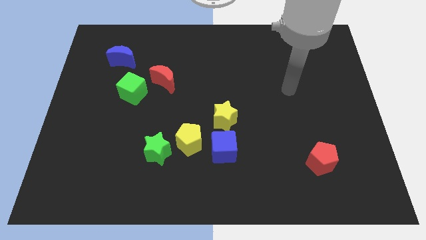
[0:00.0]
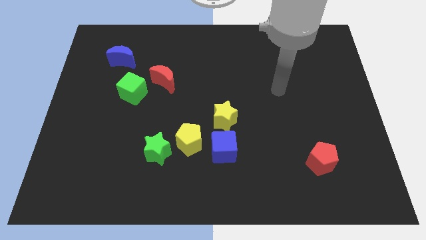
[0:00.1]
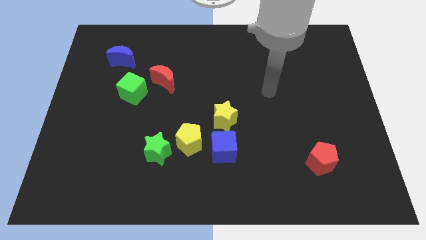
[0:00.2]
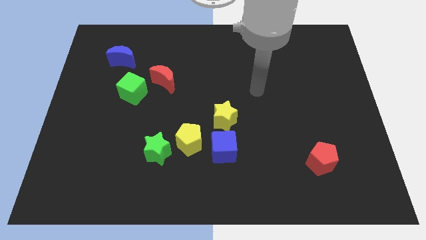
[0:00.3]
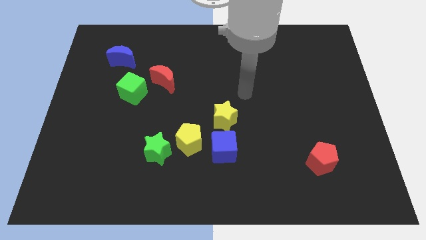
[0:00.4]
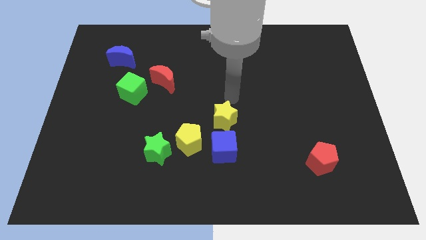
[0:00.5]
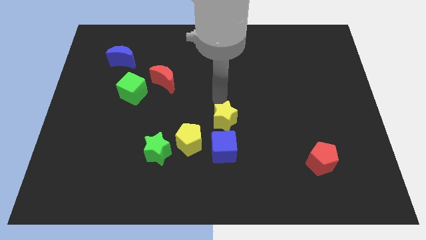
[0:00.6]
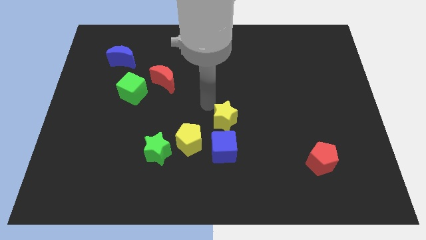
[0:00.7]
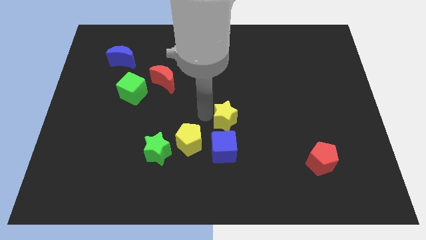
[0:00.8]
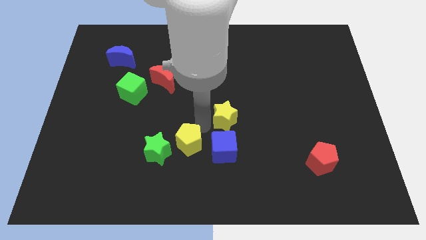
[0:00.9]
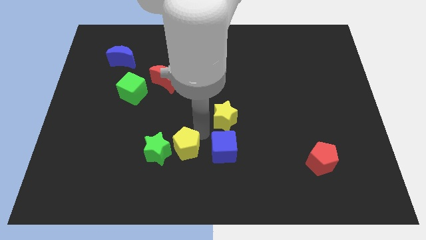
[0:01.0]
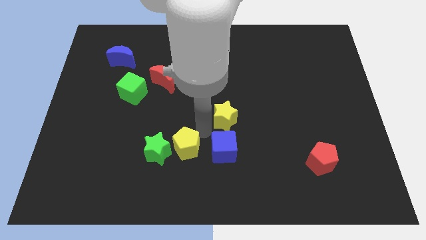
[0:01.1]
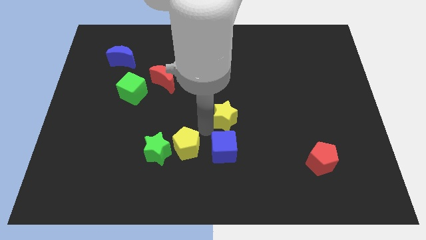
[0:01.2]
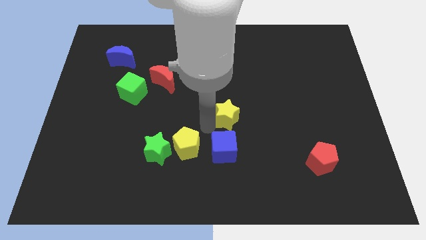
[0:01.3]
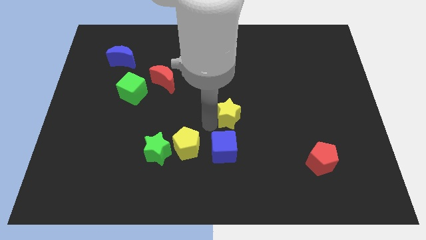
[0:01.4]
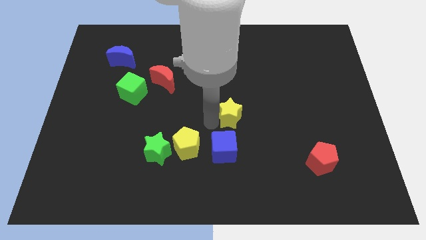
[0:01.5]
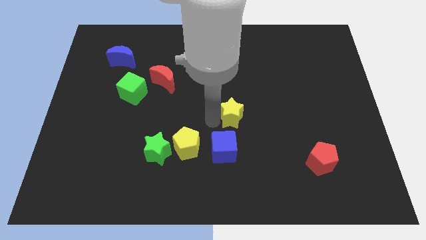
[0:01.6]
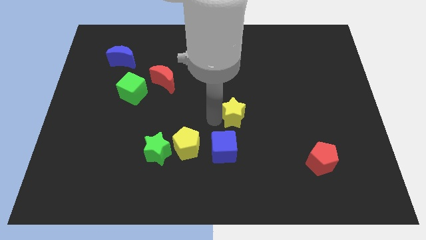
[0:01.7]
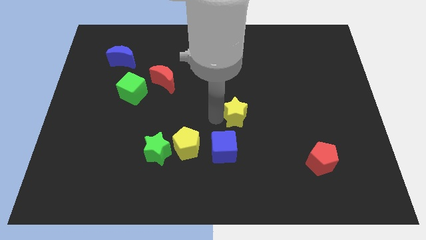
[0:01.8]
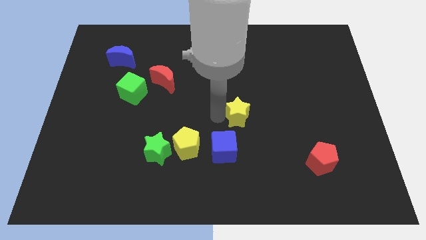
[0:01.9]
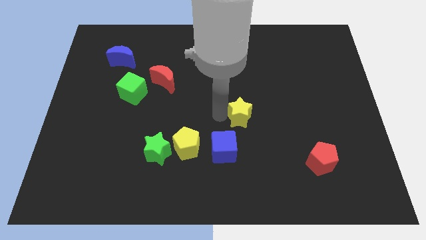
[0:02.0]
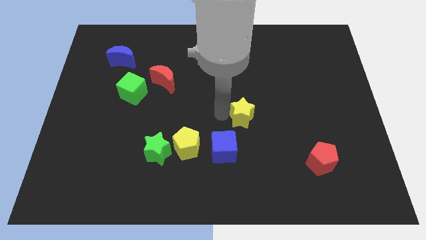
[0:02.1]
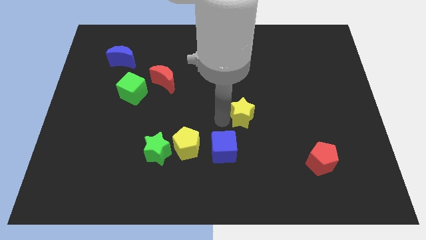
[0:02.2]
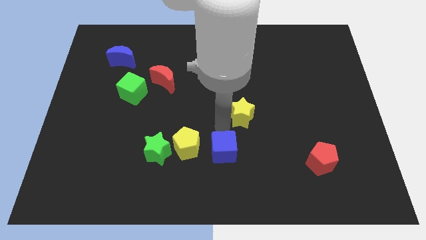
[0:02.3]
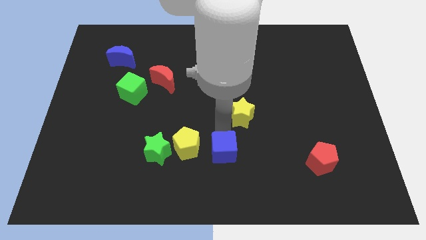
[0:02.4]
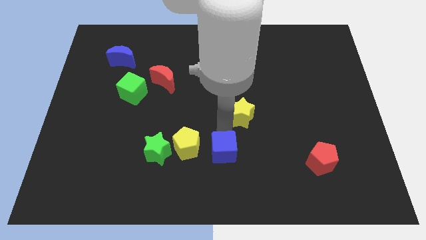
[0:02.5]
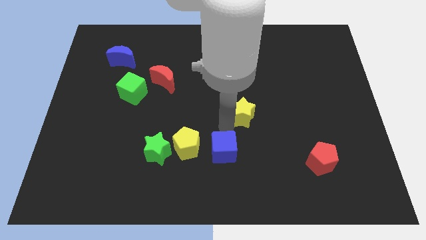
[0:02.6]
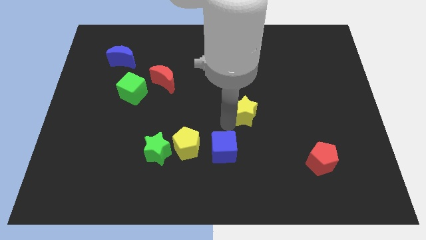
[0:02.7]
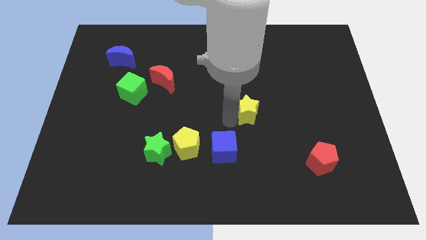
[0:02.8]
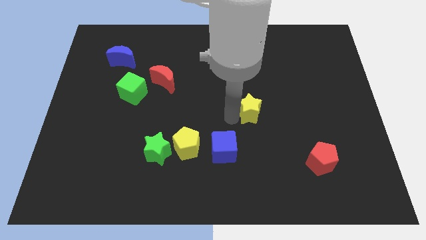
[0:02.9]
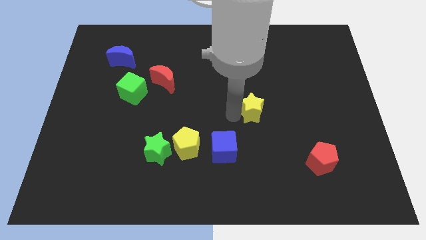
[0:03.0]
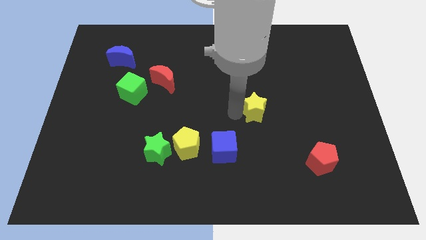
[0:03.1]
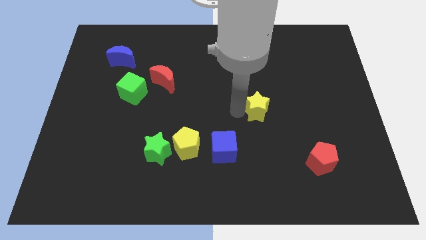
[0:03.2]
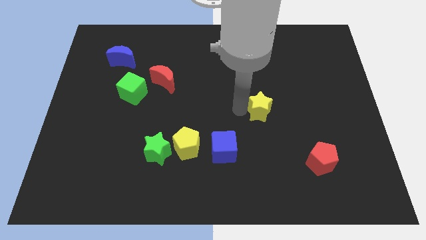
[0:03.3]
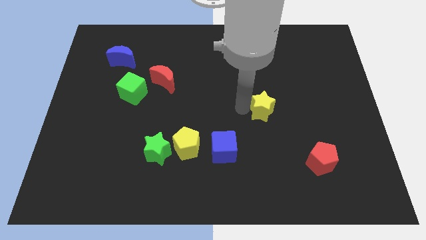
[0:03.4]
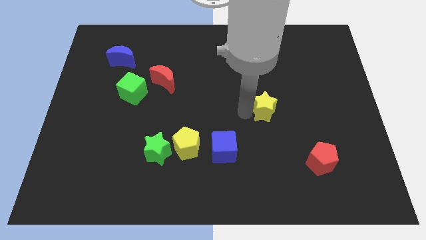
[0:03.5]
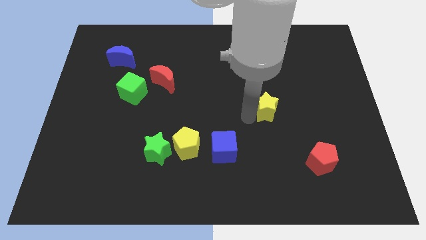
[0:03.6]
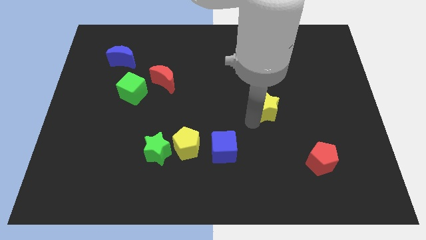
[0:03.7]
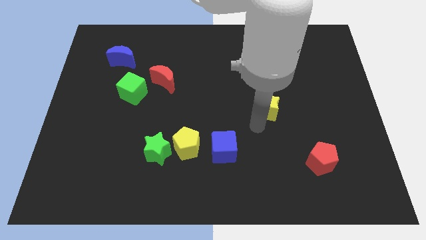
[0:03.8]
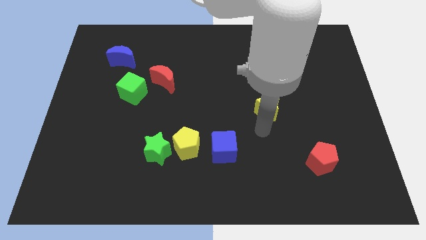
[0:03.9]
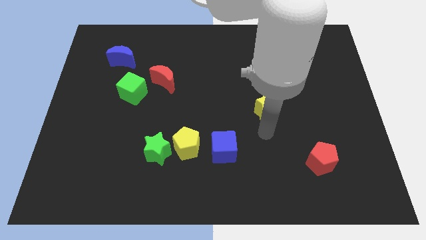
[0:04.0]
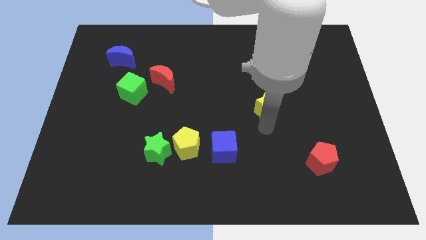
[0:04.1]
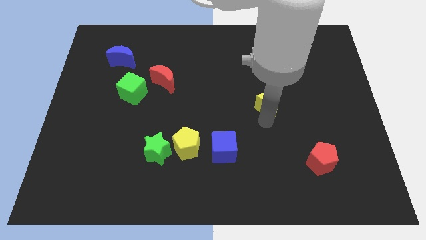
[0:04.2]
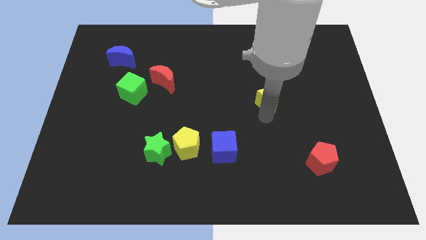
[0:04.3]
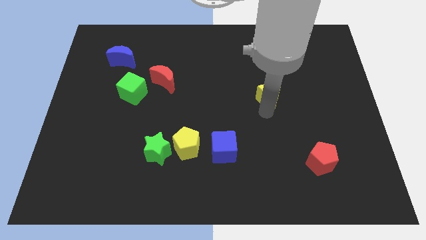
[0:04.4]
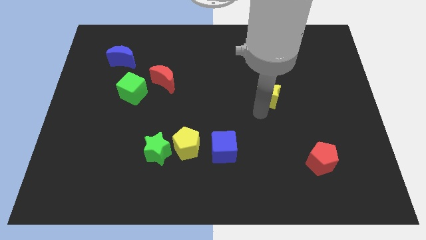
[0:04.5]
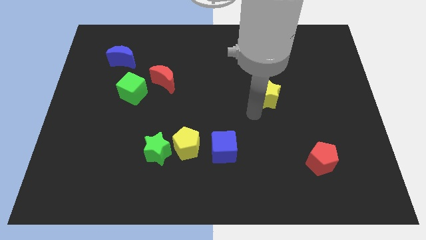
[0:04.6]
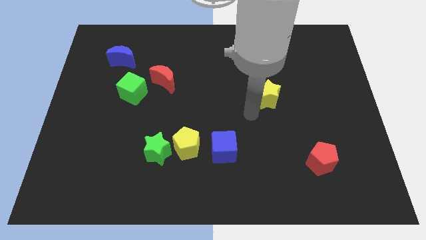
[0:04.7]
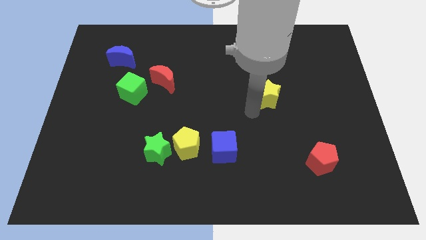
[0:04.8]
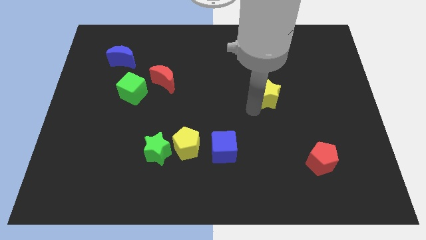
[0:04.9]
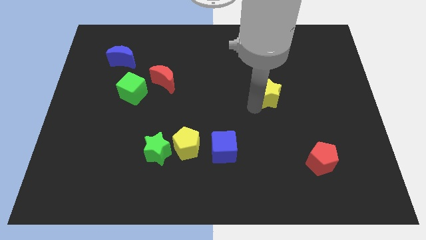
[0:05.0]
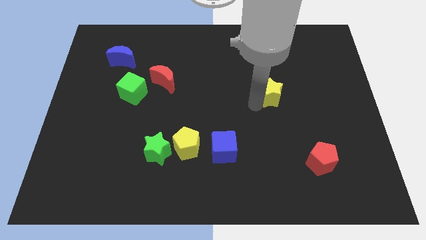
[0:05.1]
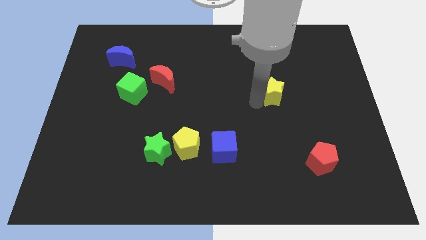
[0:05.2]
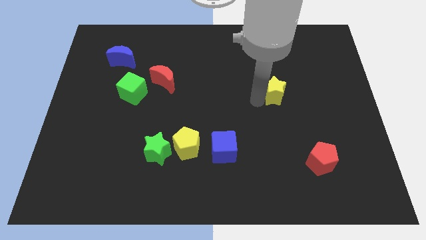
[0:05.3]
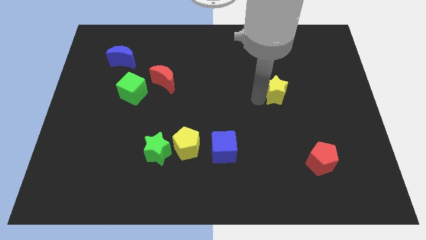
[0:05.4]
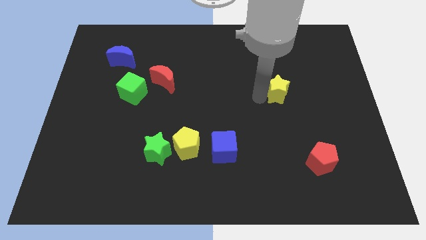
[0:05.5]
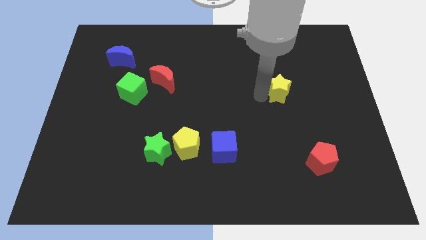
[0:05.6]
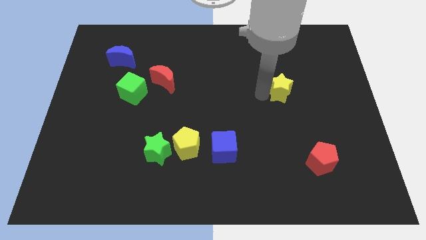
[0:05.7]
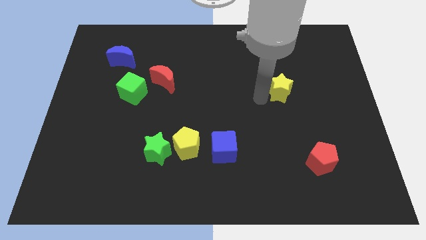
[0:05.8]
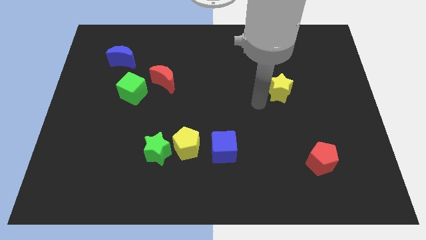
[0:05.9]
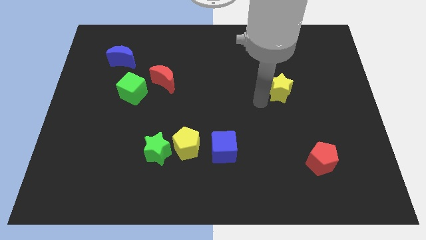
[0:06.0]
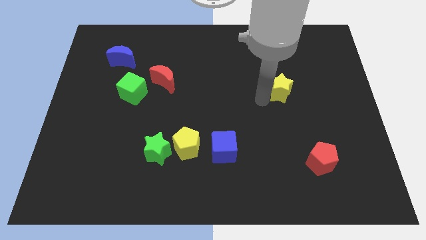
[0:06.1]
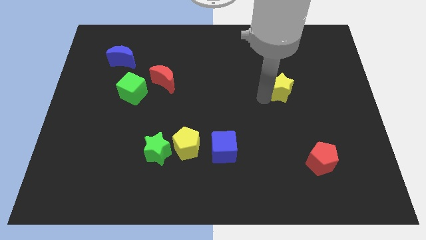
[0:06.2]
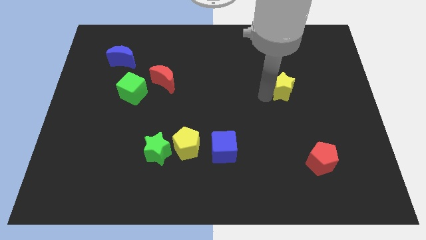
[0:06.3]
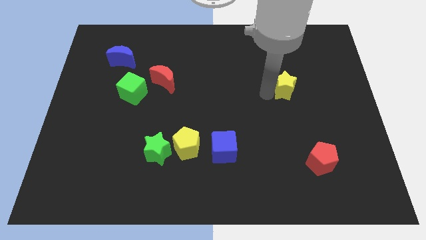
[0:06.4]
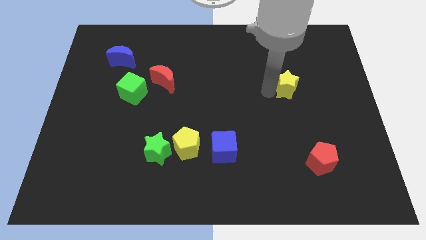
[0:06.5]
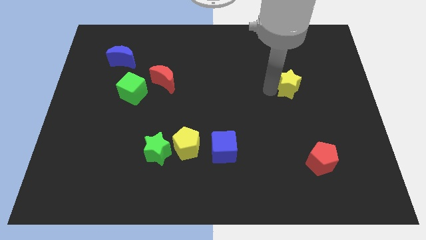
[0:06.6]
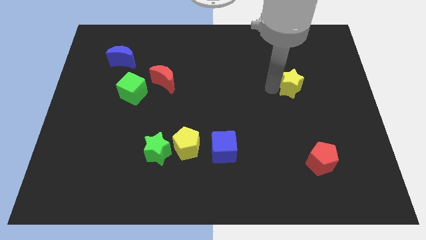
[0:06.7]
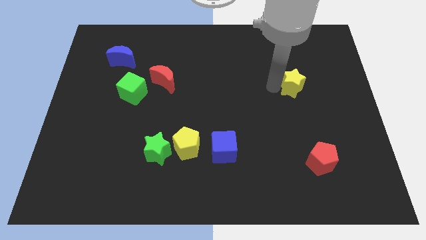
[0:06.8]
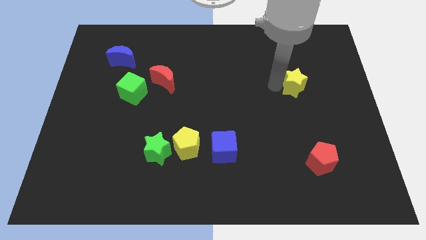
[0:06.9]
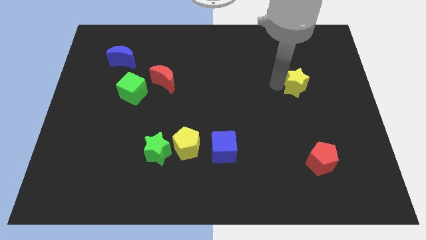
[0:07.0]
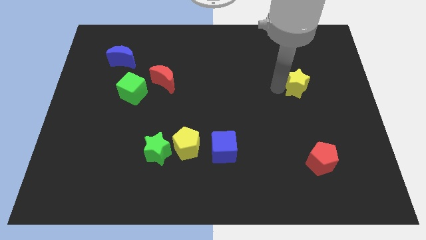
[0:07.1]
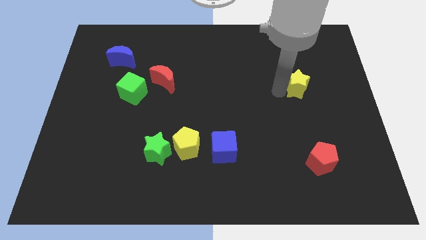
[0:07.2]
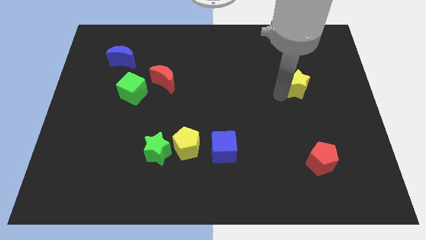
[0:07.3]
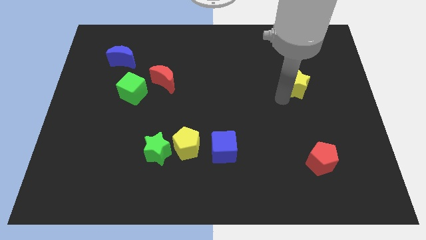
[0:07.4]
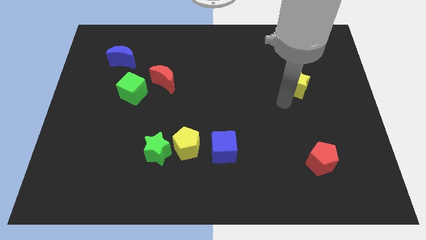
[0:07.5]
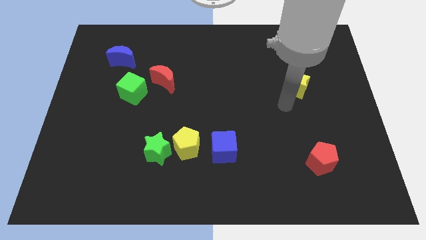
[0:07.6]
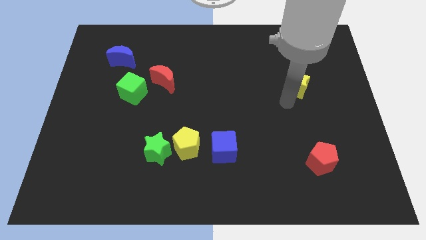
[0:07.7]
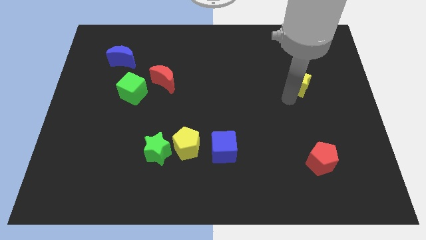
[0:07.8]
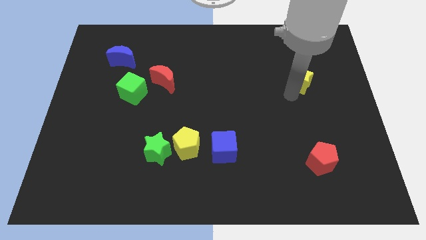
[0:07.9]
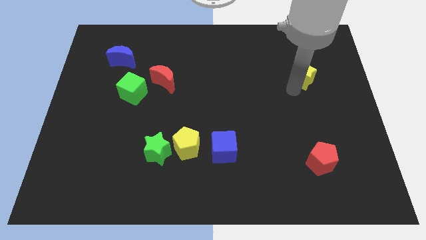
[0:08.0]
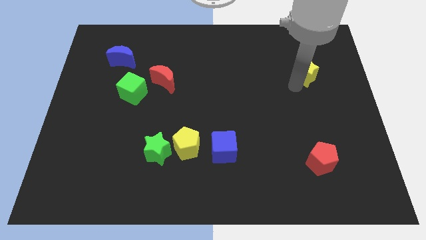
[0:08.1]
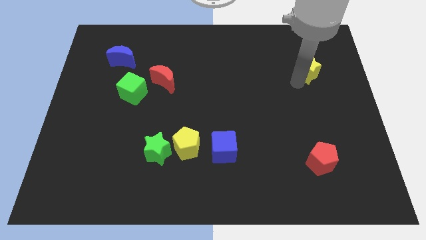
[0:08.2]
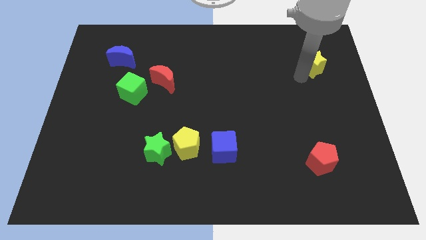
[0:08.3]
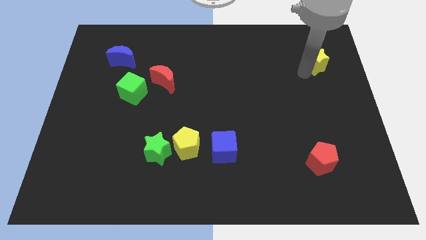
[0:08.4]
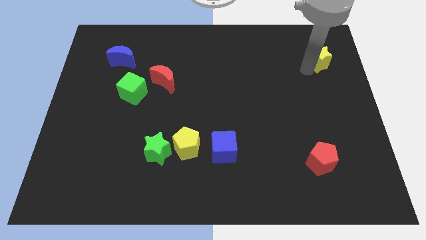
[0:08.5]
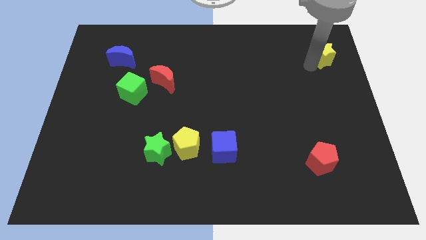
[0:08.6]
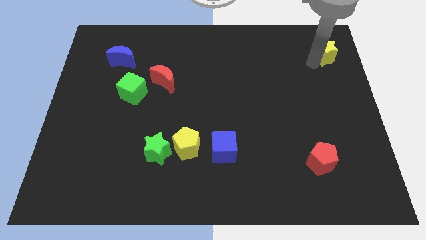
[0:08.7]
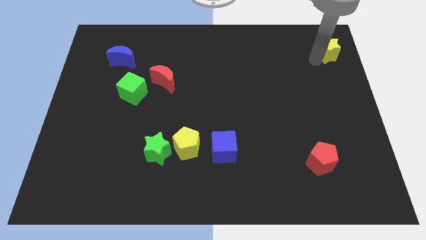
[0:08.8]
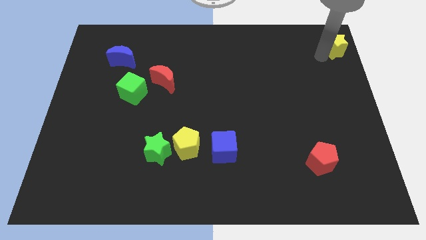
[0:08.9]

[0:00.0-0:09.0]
push the yellow star to the top right
